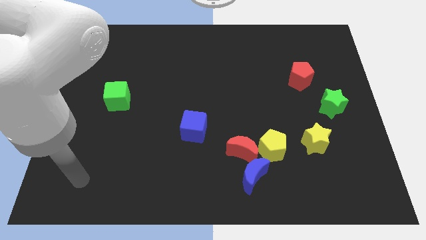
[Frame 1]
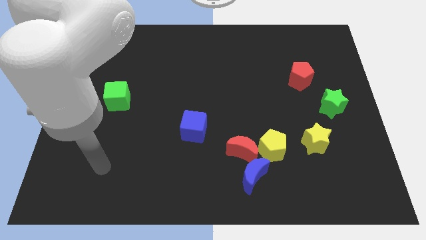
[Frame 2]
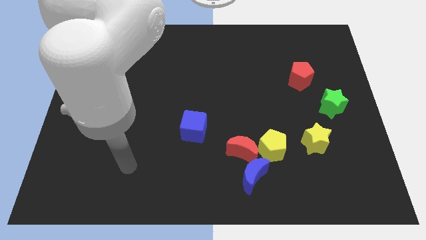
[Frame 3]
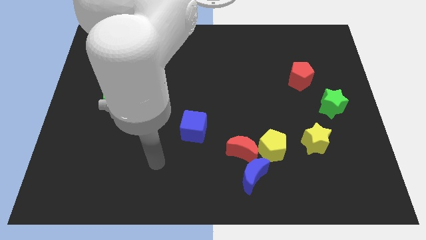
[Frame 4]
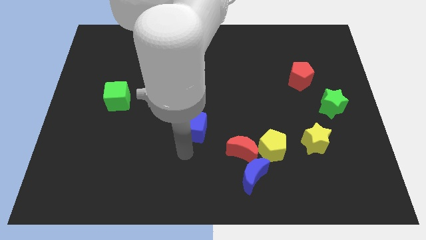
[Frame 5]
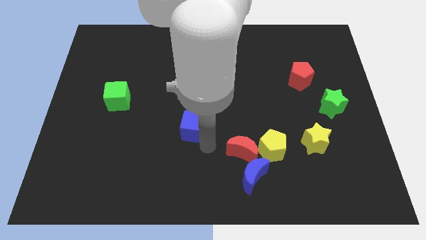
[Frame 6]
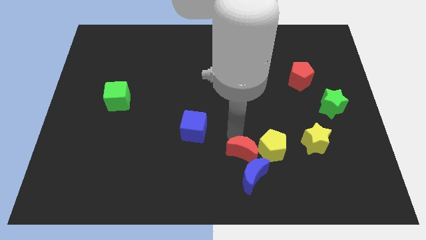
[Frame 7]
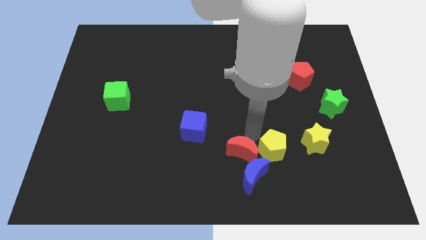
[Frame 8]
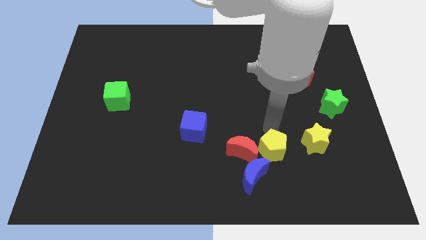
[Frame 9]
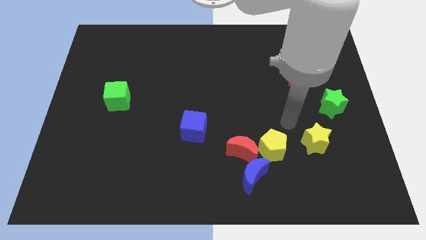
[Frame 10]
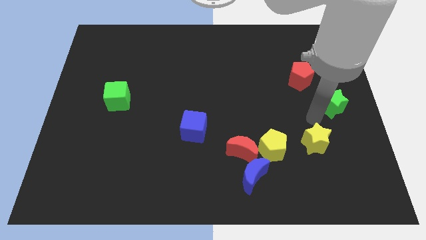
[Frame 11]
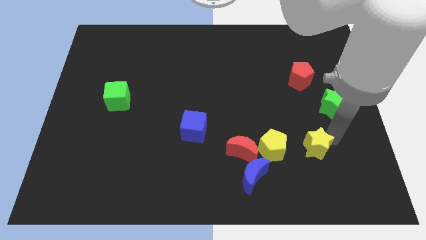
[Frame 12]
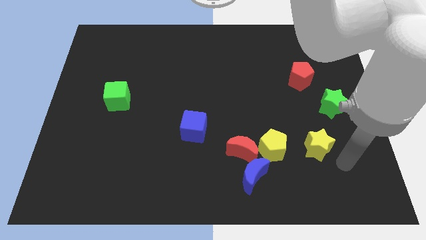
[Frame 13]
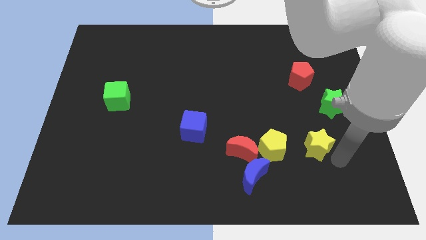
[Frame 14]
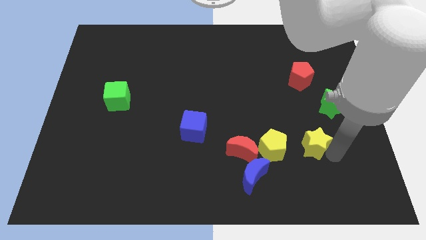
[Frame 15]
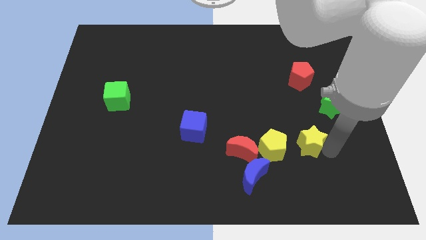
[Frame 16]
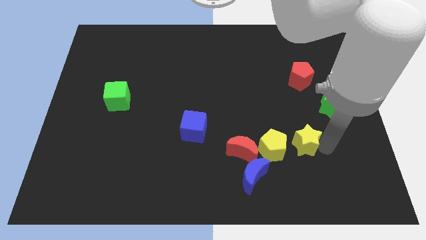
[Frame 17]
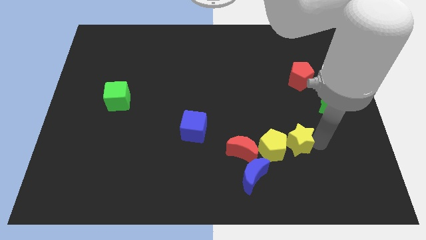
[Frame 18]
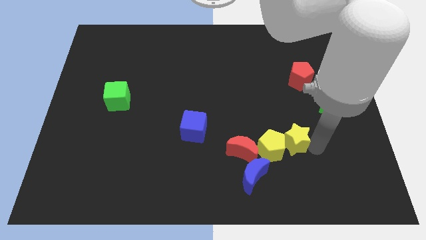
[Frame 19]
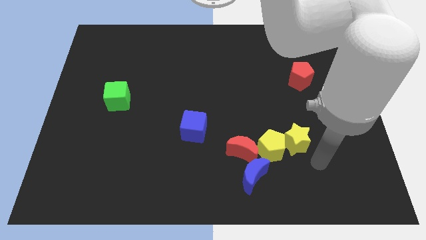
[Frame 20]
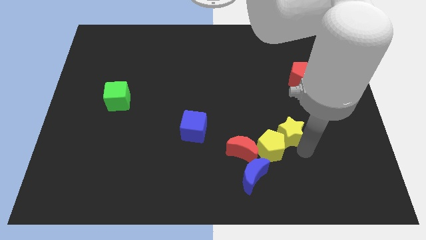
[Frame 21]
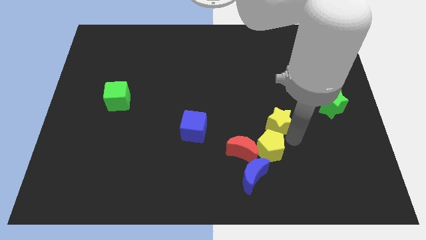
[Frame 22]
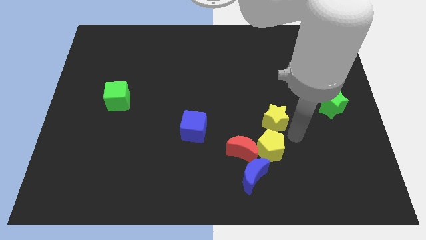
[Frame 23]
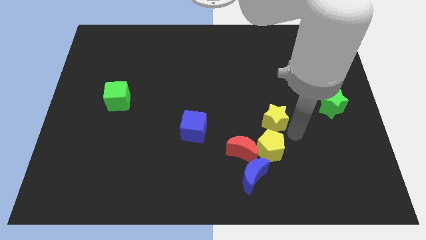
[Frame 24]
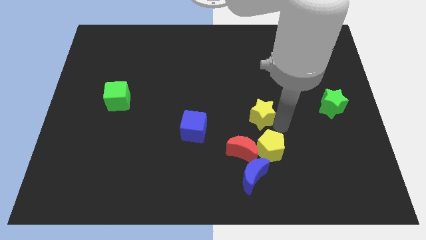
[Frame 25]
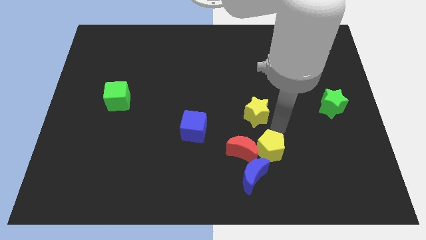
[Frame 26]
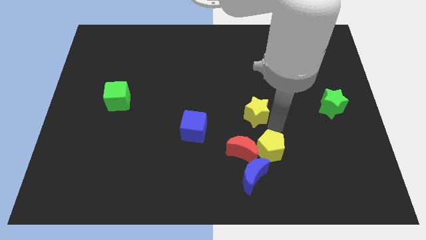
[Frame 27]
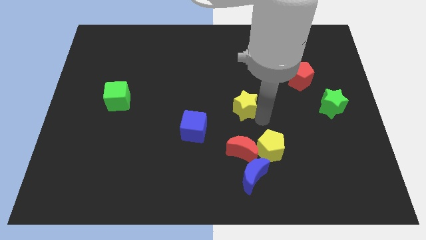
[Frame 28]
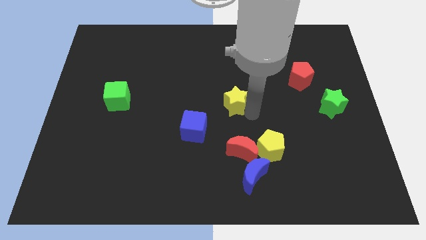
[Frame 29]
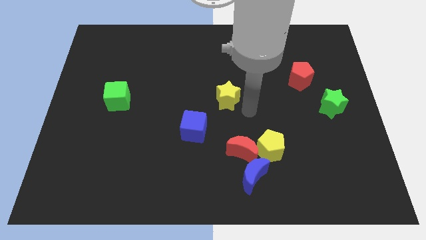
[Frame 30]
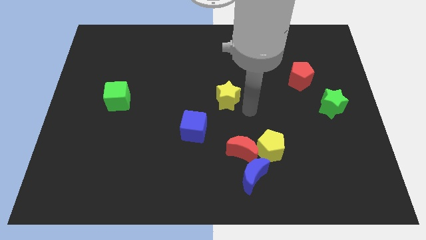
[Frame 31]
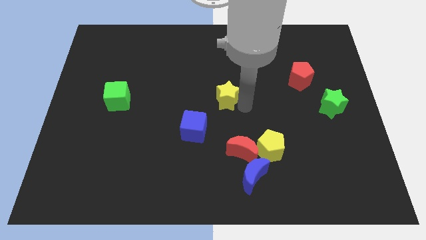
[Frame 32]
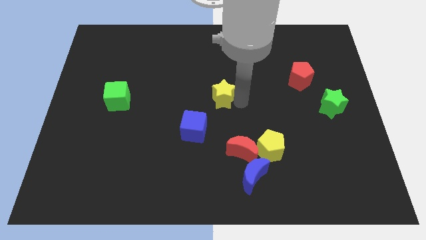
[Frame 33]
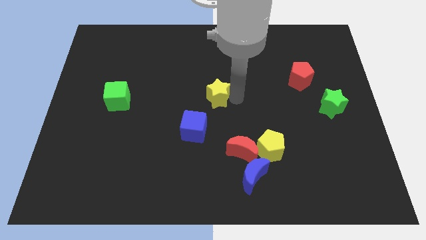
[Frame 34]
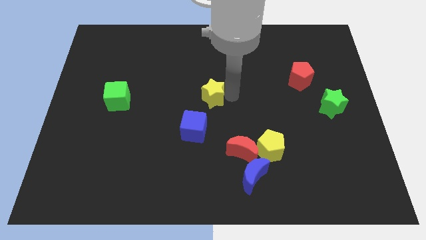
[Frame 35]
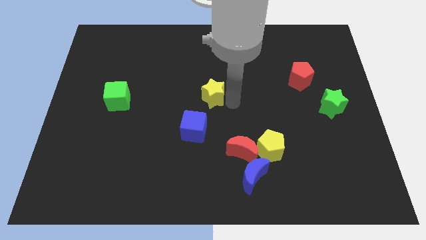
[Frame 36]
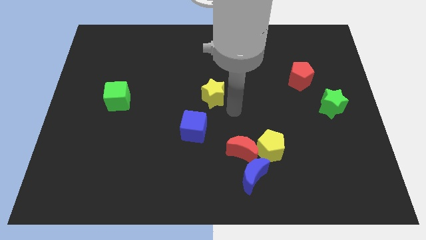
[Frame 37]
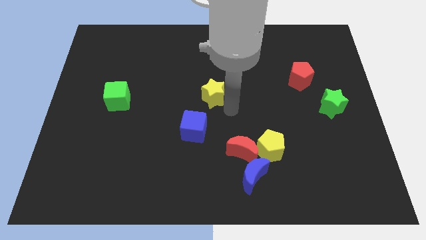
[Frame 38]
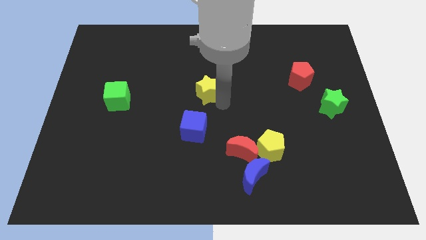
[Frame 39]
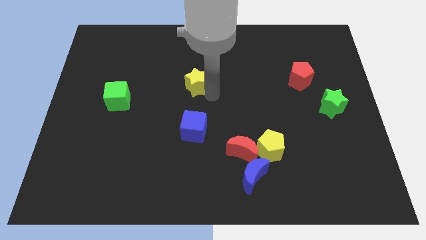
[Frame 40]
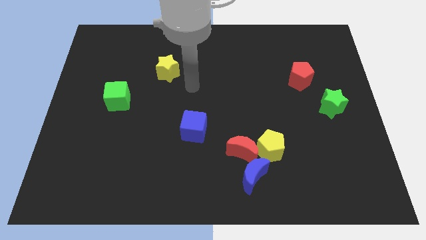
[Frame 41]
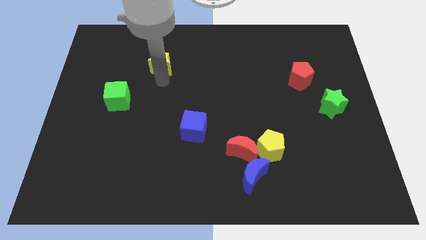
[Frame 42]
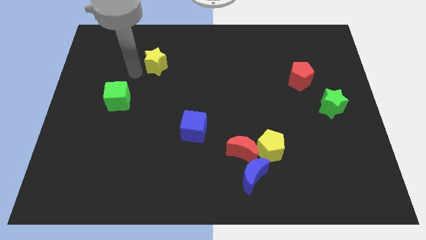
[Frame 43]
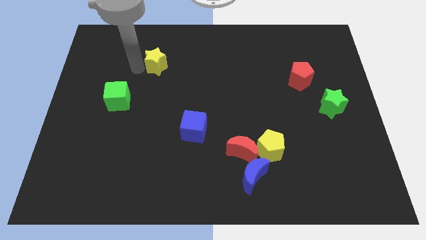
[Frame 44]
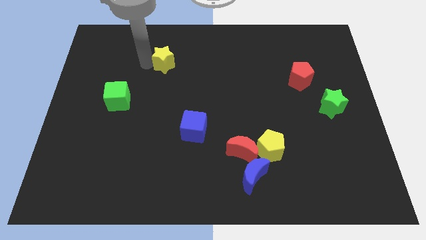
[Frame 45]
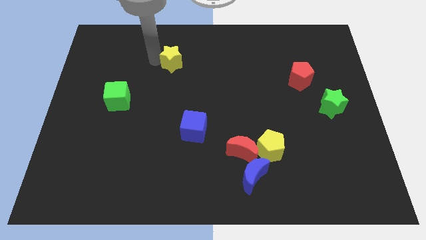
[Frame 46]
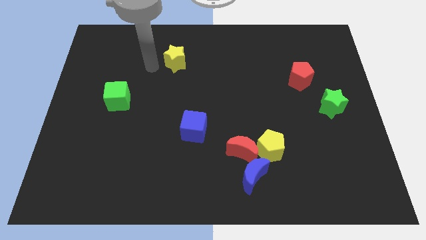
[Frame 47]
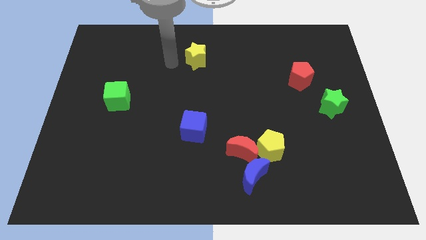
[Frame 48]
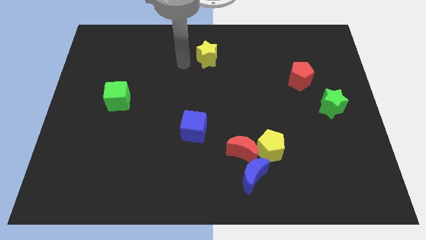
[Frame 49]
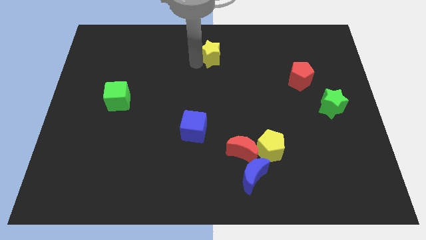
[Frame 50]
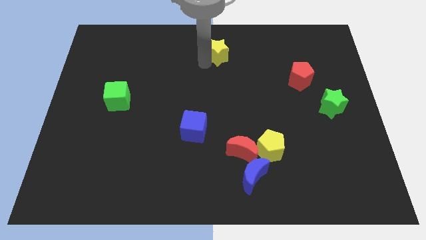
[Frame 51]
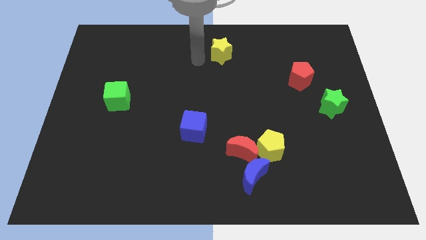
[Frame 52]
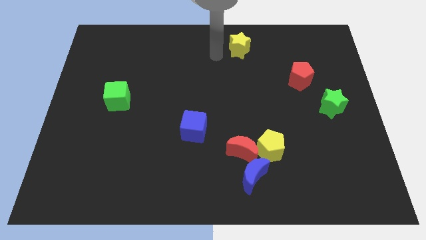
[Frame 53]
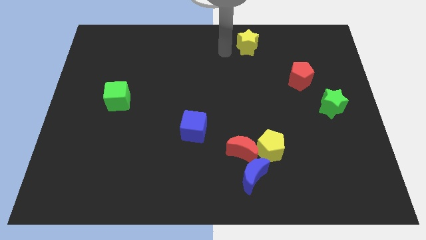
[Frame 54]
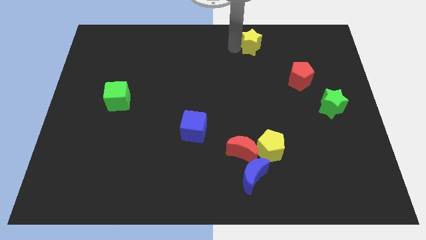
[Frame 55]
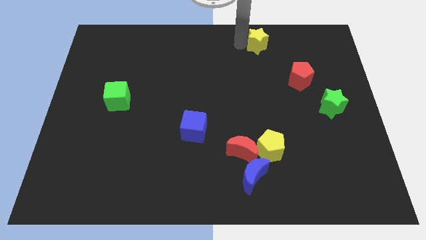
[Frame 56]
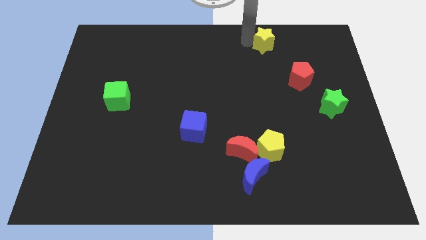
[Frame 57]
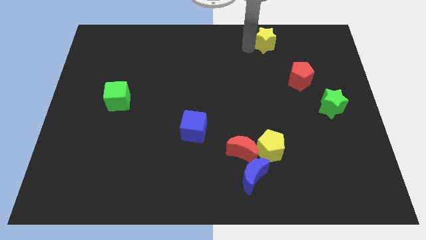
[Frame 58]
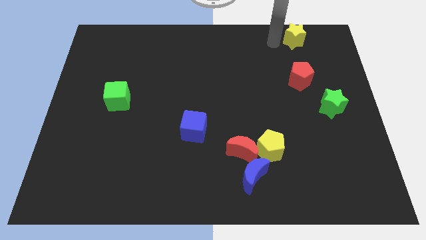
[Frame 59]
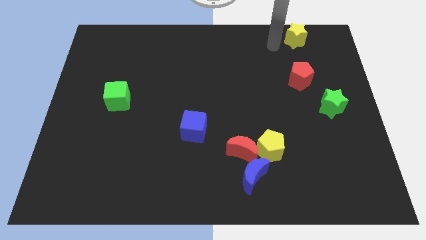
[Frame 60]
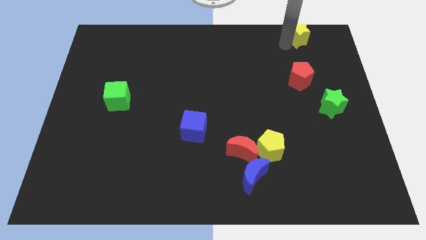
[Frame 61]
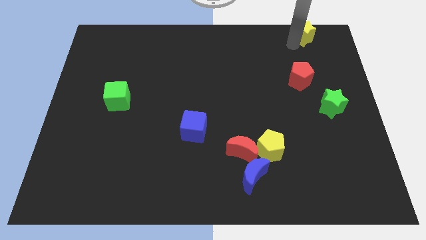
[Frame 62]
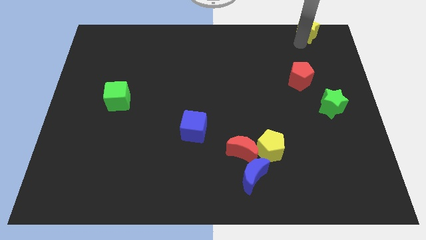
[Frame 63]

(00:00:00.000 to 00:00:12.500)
put the yellow star to the top right of the board
